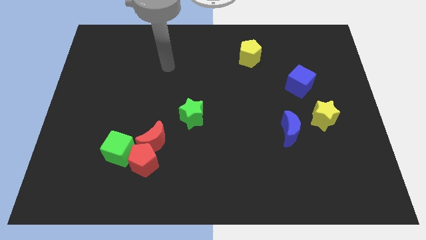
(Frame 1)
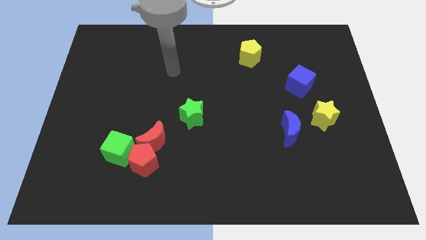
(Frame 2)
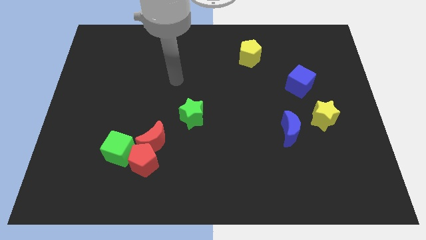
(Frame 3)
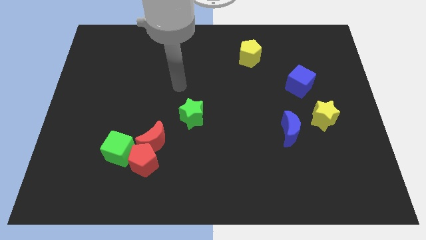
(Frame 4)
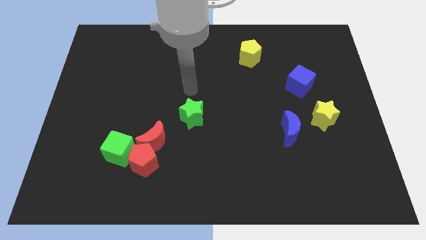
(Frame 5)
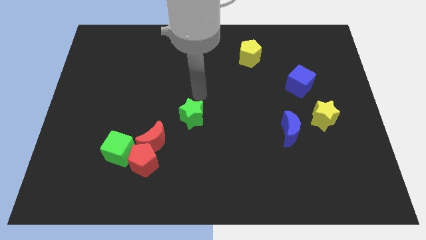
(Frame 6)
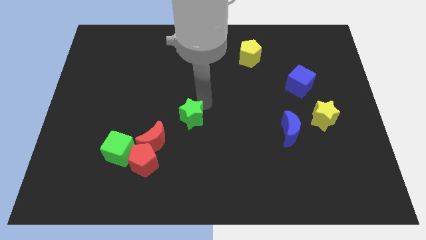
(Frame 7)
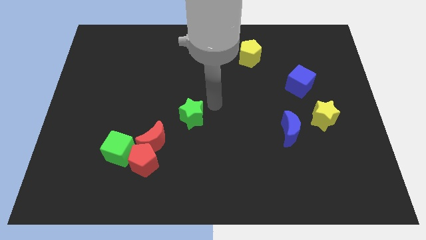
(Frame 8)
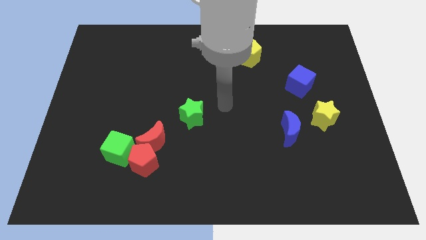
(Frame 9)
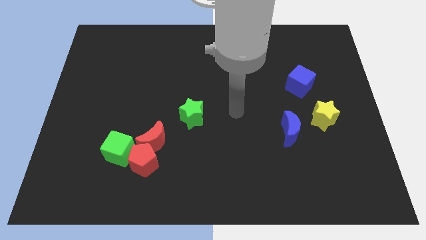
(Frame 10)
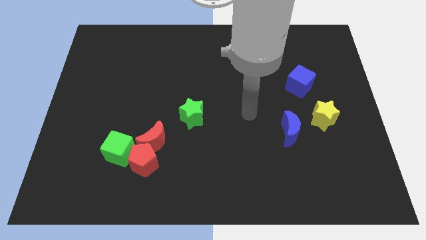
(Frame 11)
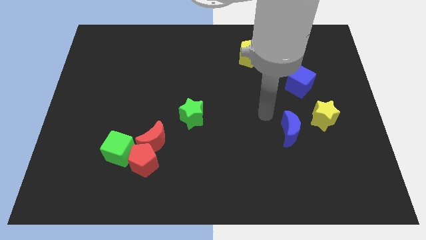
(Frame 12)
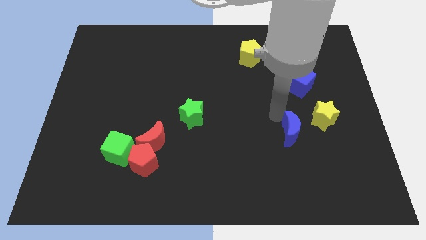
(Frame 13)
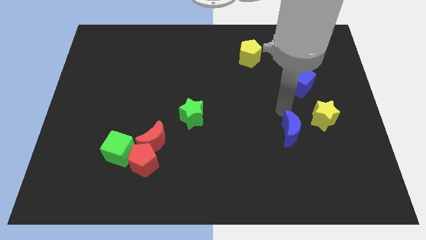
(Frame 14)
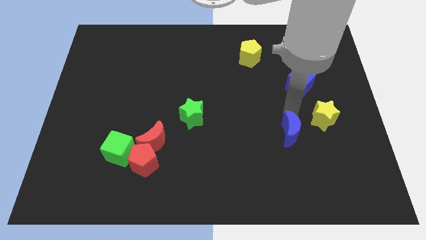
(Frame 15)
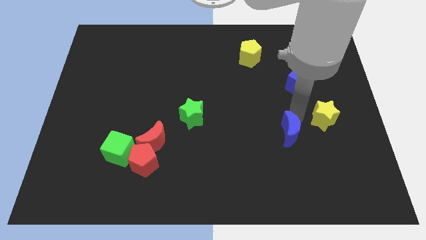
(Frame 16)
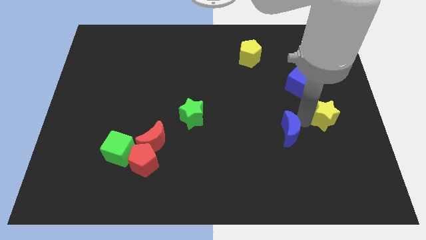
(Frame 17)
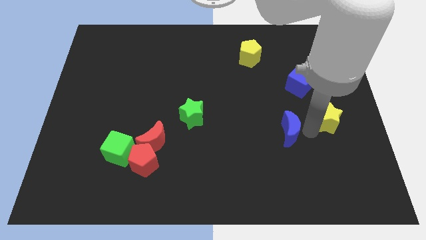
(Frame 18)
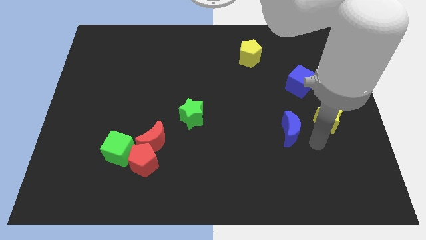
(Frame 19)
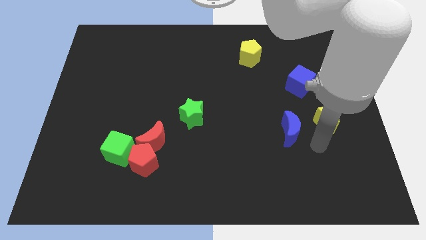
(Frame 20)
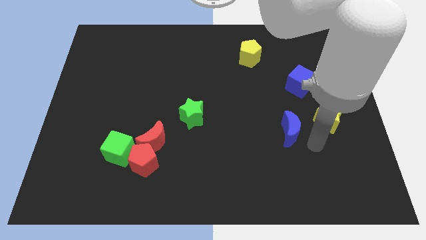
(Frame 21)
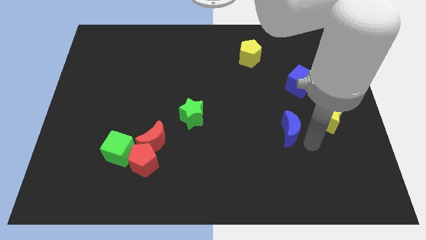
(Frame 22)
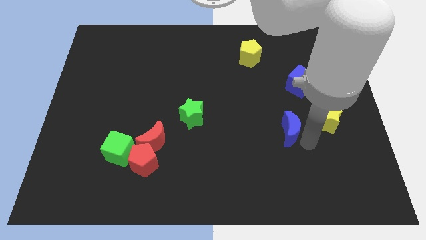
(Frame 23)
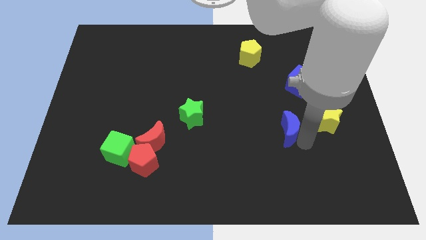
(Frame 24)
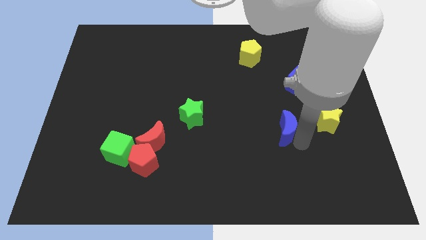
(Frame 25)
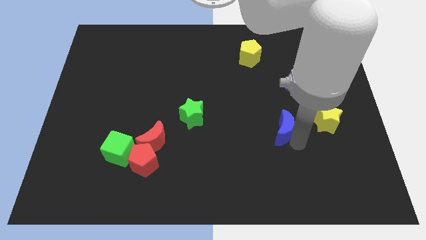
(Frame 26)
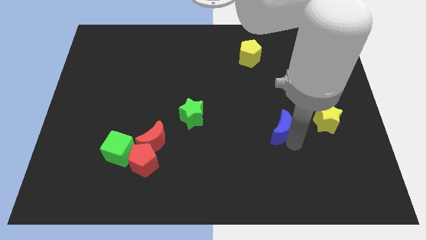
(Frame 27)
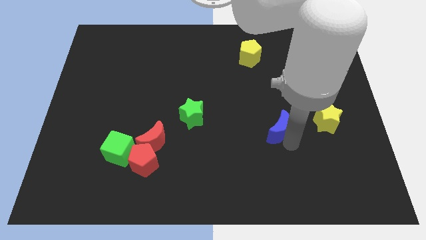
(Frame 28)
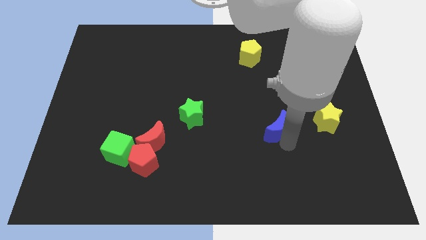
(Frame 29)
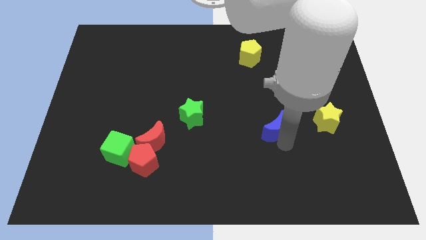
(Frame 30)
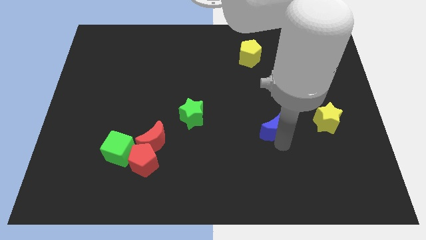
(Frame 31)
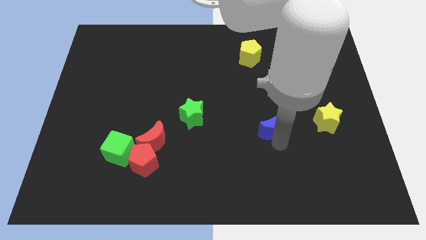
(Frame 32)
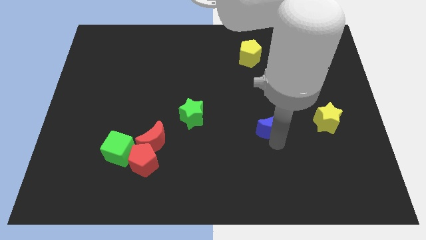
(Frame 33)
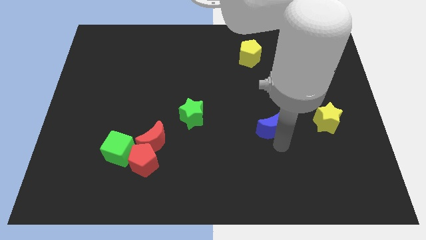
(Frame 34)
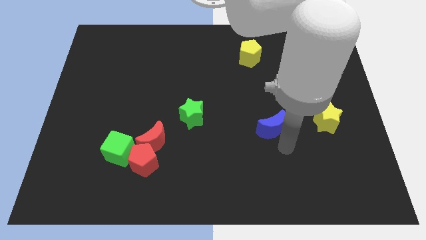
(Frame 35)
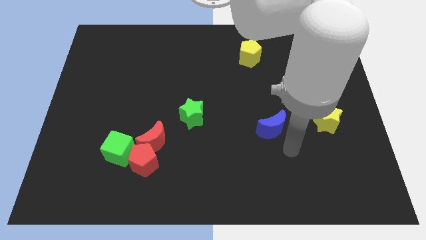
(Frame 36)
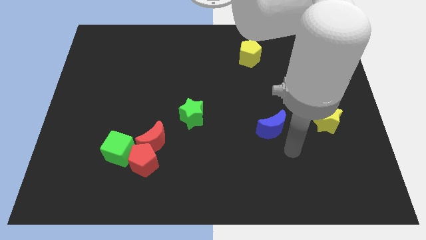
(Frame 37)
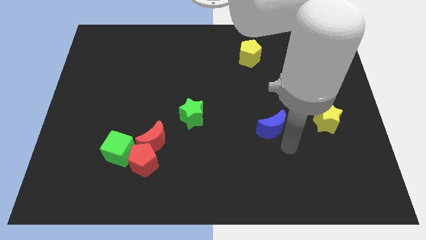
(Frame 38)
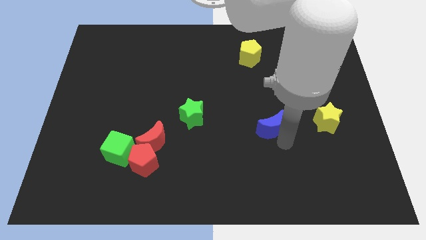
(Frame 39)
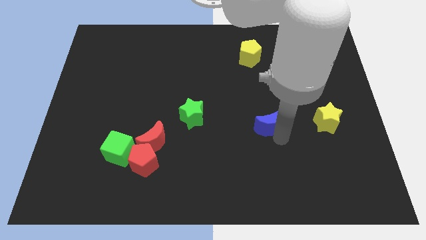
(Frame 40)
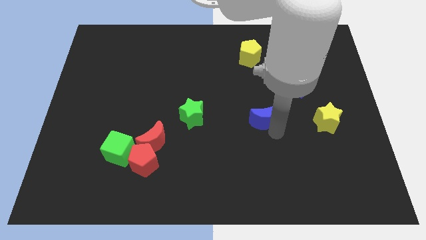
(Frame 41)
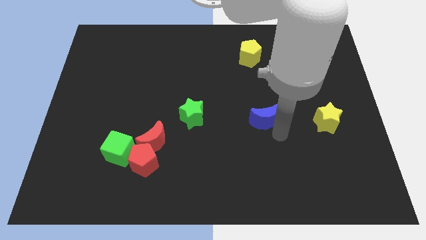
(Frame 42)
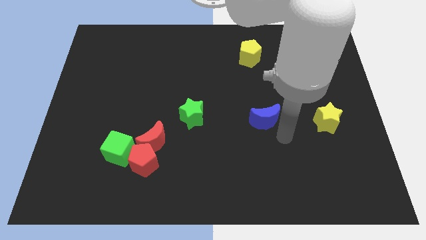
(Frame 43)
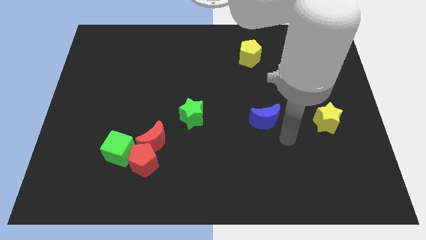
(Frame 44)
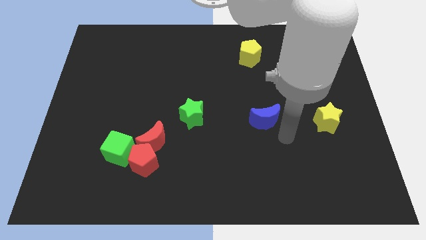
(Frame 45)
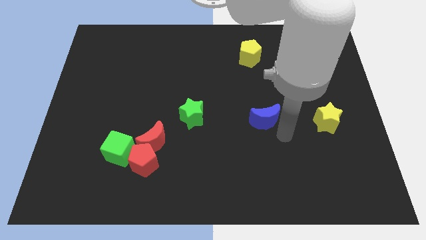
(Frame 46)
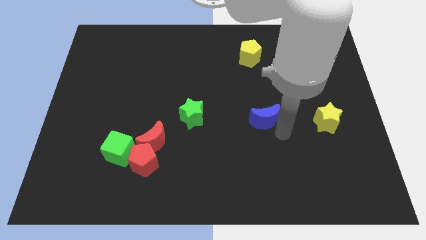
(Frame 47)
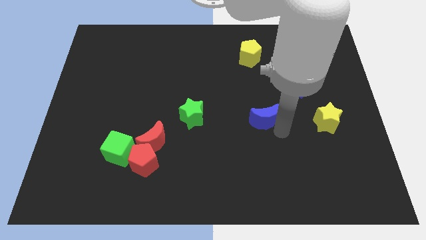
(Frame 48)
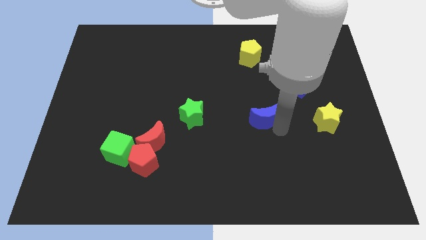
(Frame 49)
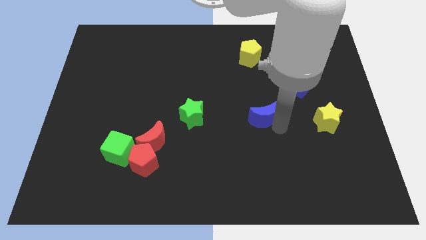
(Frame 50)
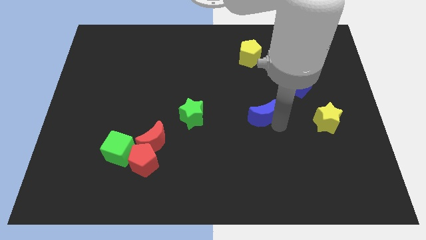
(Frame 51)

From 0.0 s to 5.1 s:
slightly move the blue moon up and then to the left

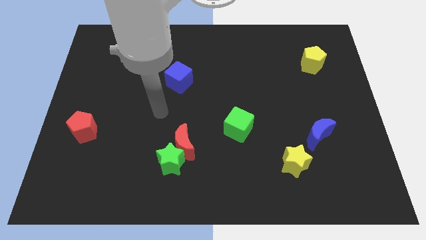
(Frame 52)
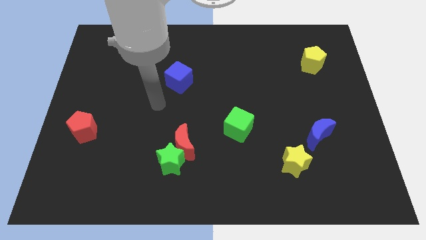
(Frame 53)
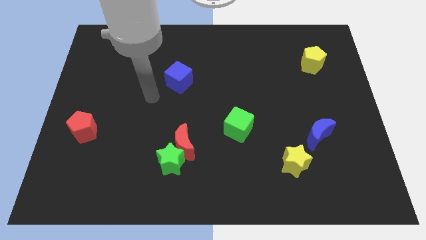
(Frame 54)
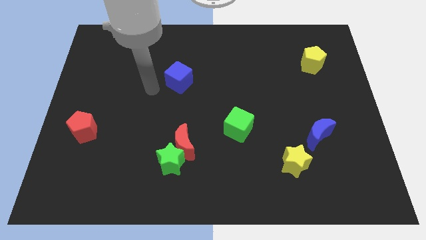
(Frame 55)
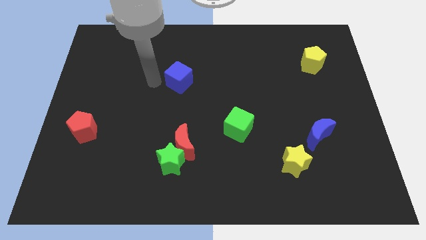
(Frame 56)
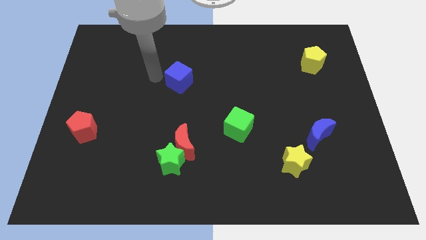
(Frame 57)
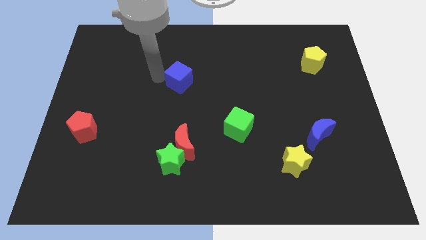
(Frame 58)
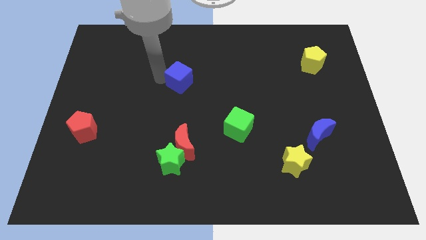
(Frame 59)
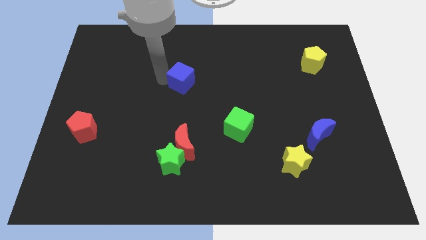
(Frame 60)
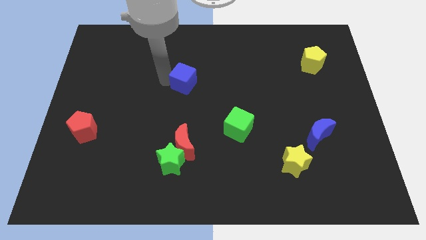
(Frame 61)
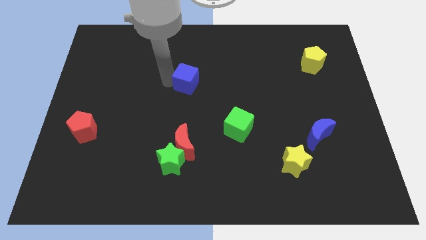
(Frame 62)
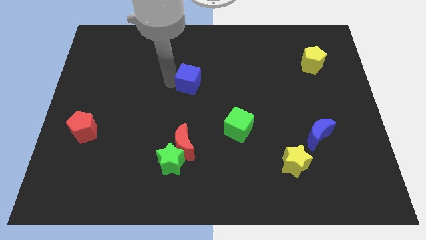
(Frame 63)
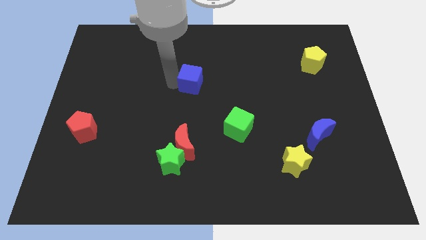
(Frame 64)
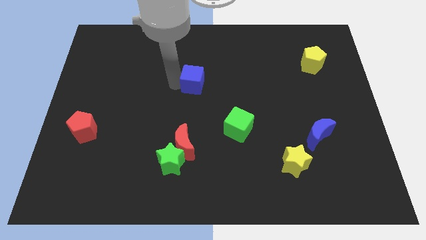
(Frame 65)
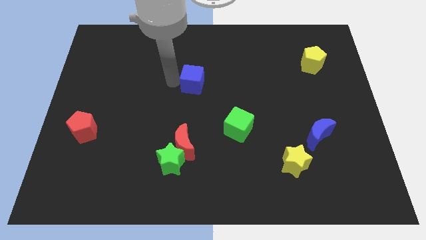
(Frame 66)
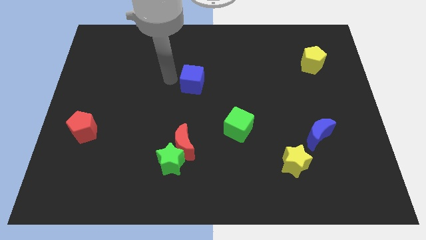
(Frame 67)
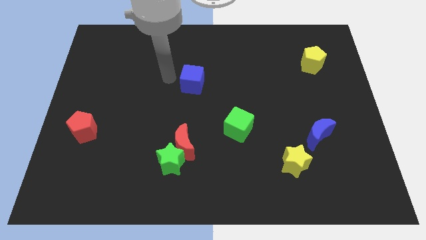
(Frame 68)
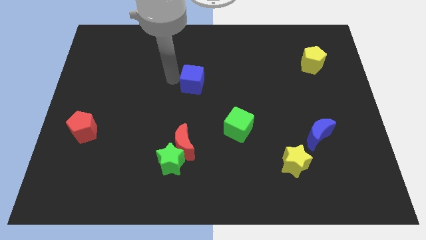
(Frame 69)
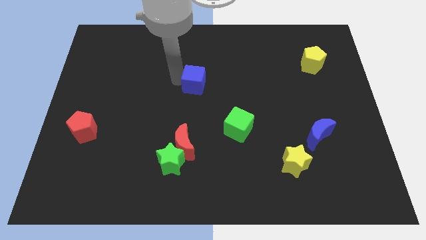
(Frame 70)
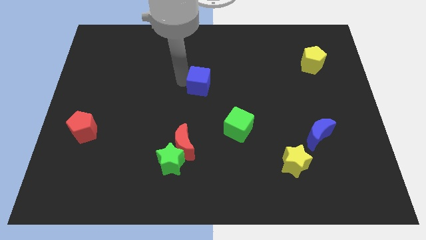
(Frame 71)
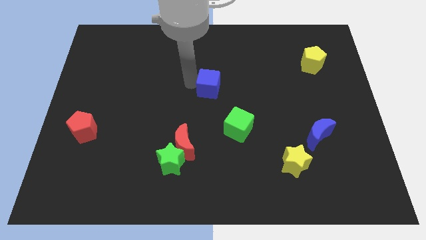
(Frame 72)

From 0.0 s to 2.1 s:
slide the blue cube a little right

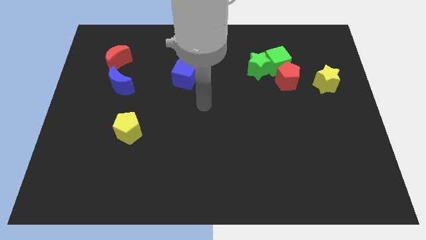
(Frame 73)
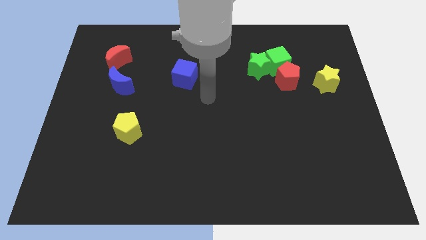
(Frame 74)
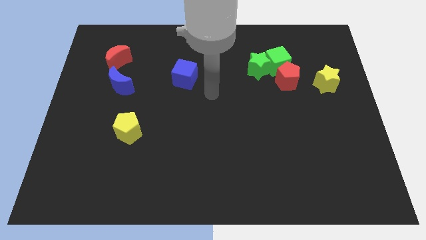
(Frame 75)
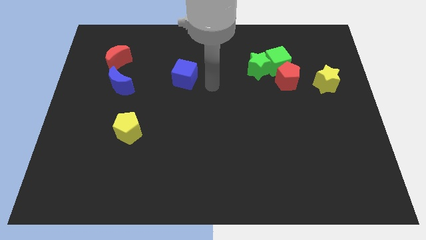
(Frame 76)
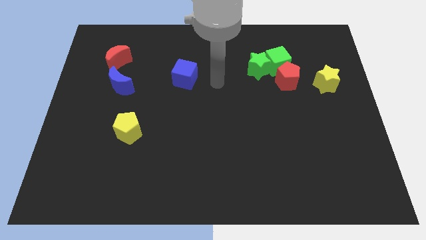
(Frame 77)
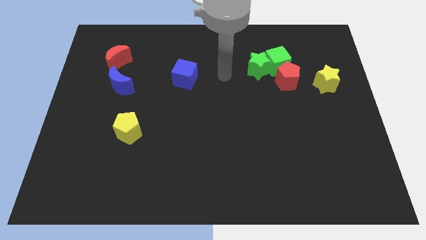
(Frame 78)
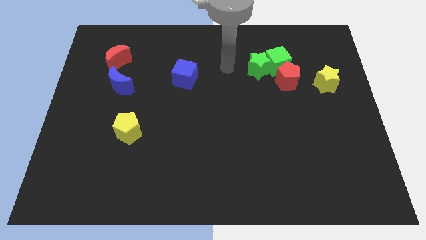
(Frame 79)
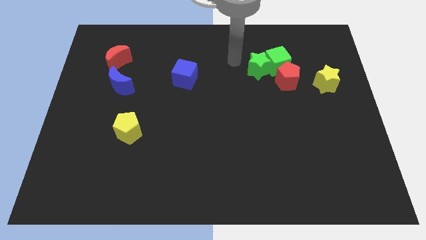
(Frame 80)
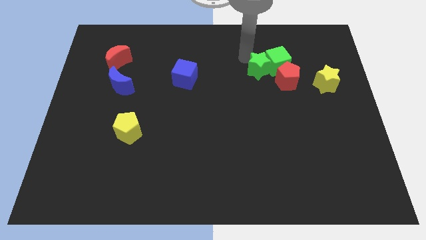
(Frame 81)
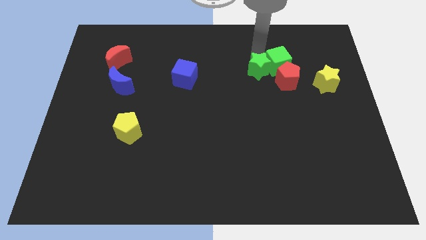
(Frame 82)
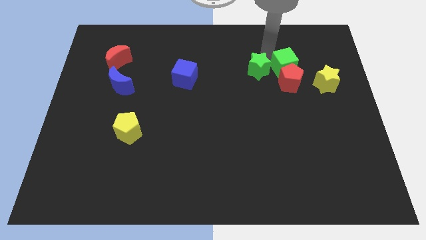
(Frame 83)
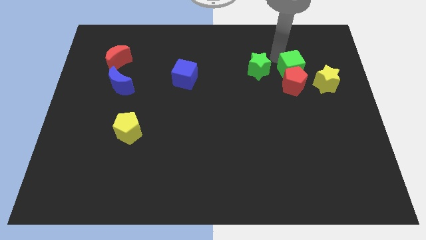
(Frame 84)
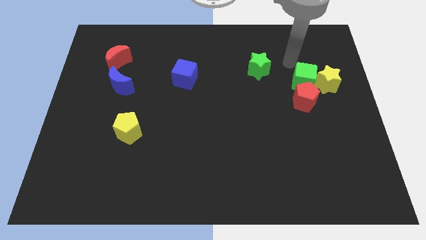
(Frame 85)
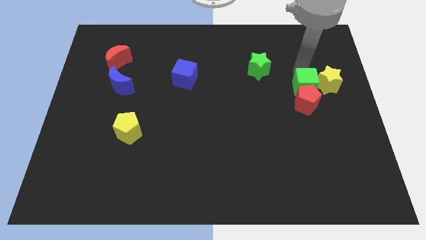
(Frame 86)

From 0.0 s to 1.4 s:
push the red pentagon downwards a little bit
